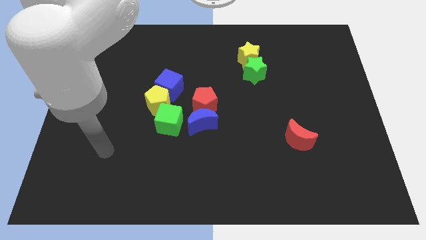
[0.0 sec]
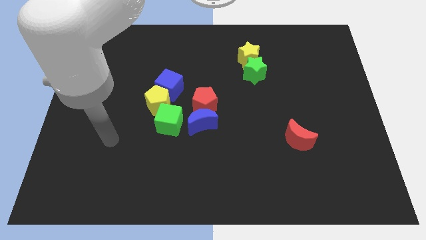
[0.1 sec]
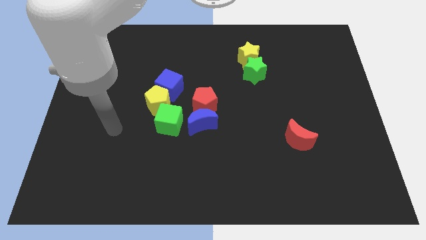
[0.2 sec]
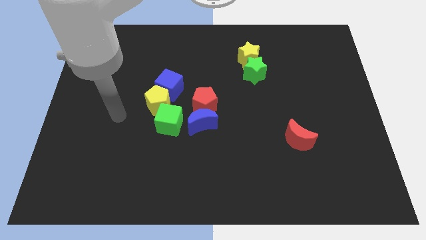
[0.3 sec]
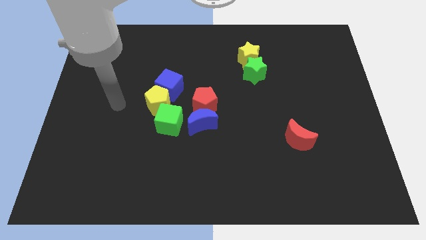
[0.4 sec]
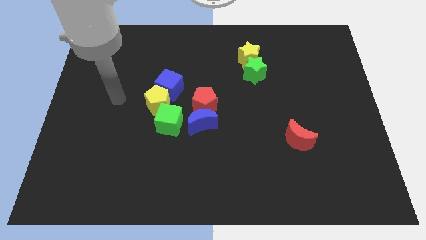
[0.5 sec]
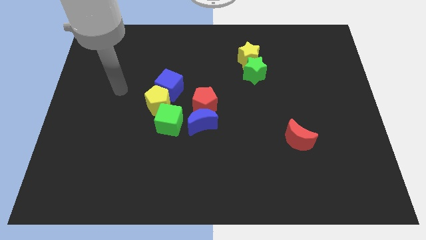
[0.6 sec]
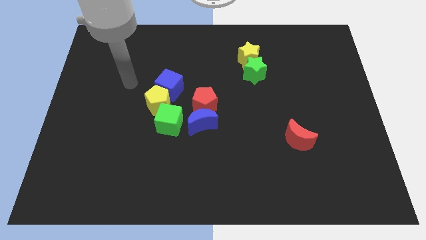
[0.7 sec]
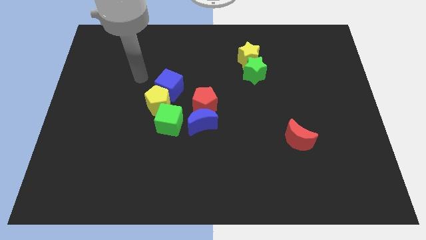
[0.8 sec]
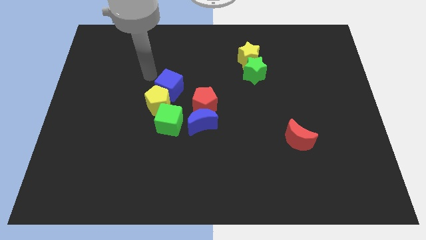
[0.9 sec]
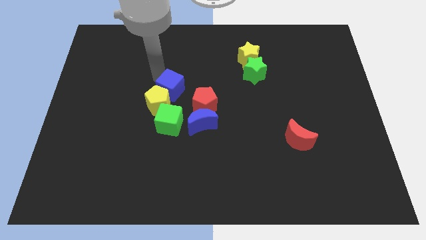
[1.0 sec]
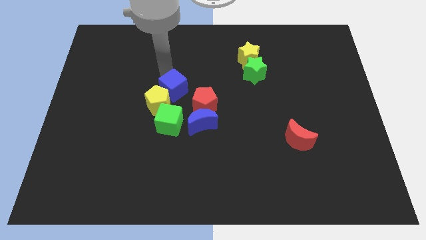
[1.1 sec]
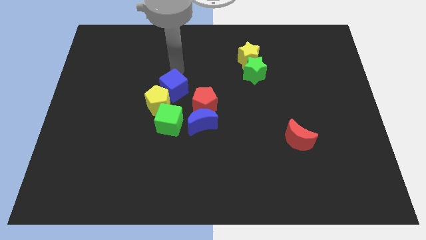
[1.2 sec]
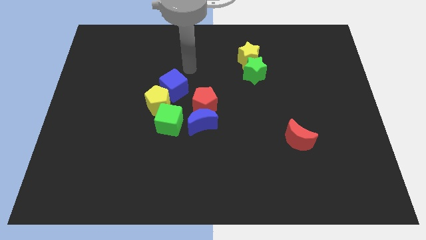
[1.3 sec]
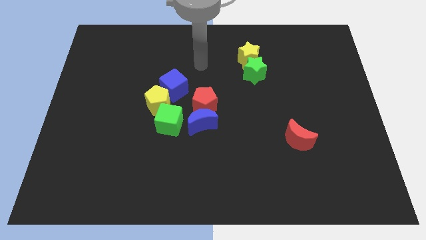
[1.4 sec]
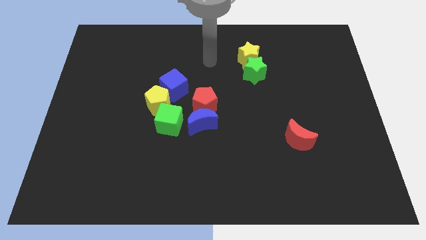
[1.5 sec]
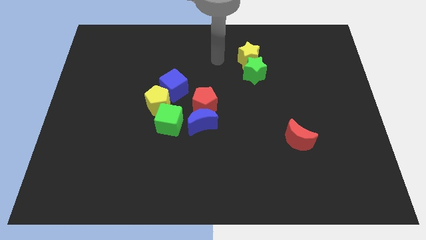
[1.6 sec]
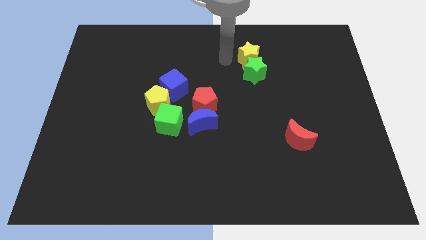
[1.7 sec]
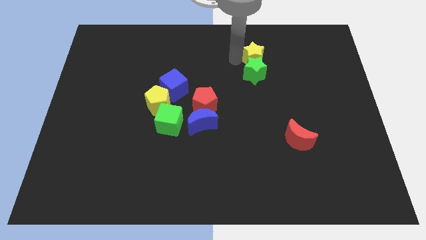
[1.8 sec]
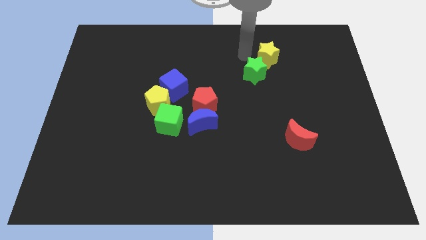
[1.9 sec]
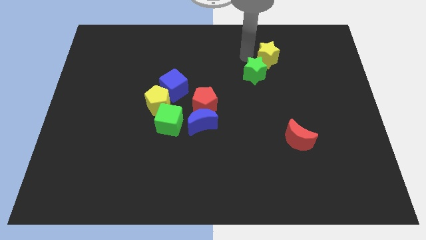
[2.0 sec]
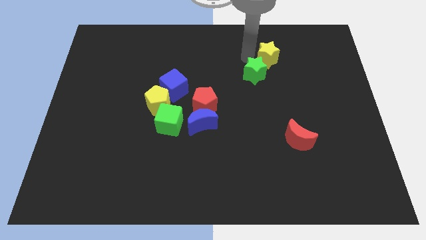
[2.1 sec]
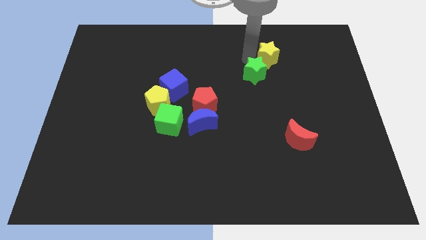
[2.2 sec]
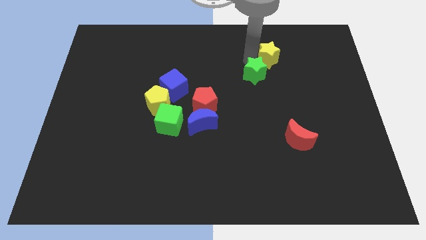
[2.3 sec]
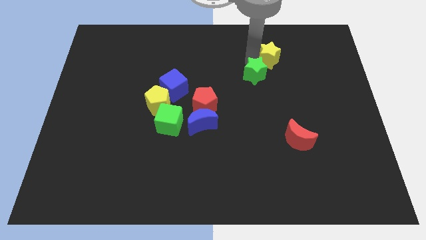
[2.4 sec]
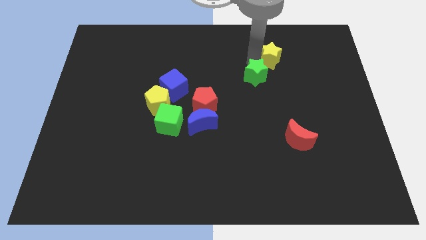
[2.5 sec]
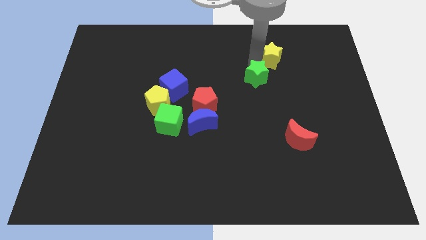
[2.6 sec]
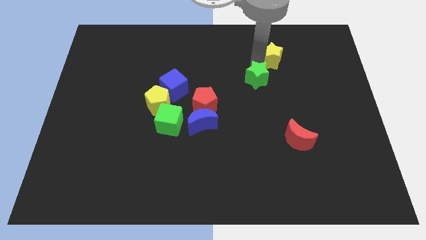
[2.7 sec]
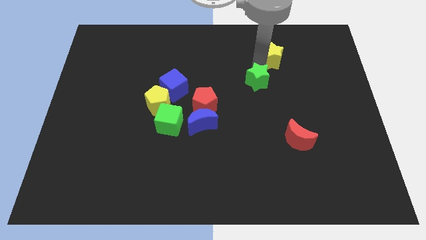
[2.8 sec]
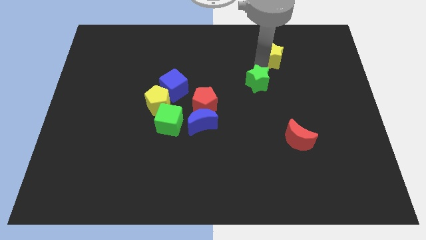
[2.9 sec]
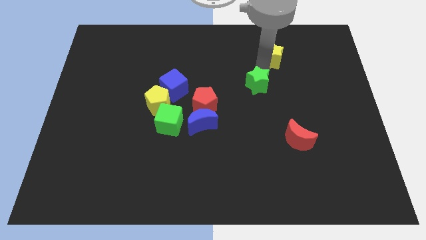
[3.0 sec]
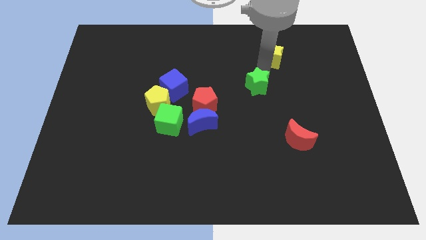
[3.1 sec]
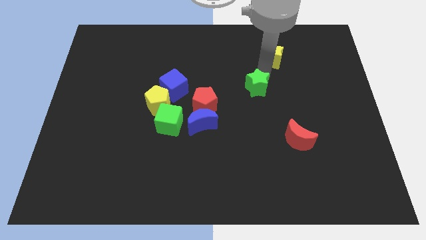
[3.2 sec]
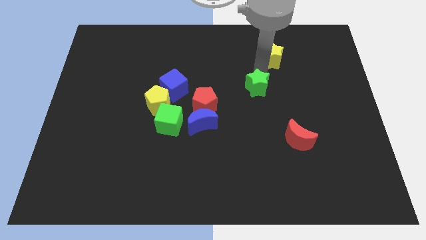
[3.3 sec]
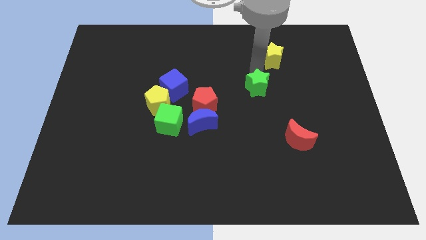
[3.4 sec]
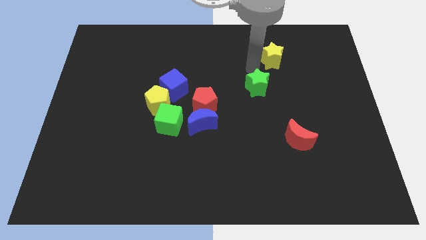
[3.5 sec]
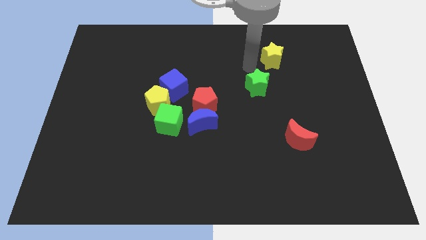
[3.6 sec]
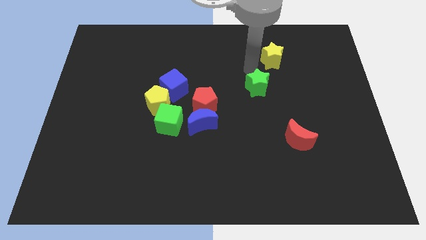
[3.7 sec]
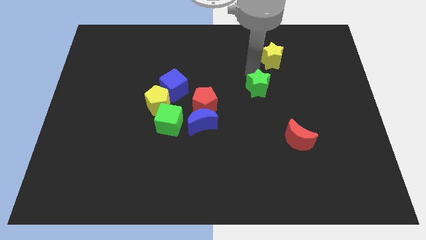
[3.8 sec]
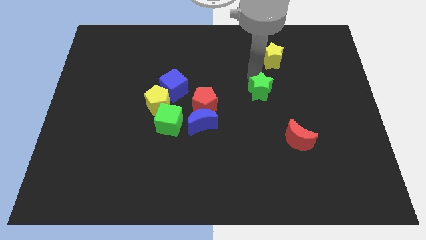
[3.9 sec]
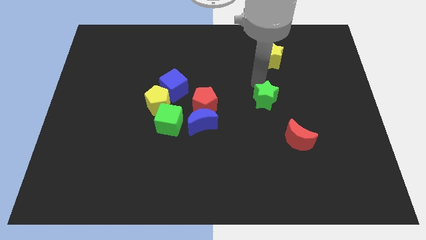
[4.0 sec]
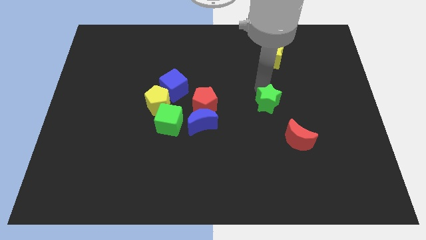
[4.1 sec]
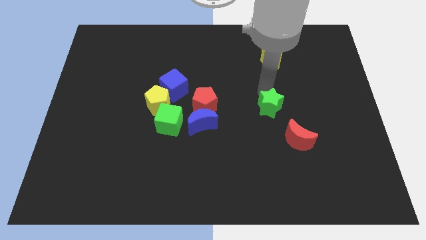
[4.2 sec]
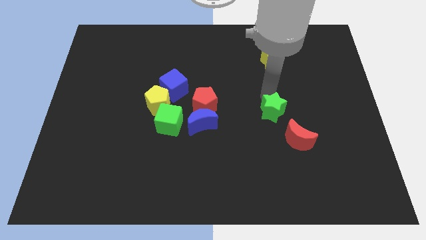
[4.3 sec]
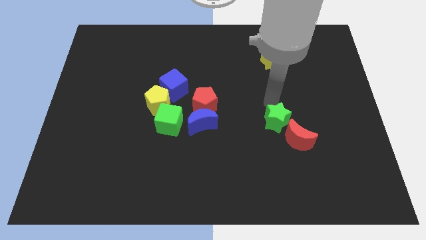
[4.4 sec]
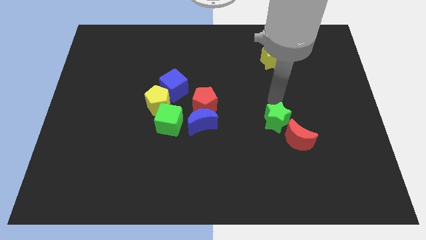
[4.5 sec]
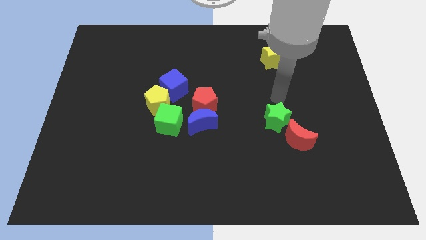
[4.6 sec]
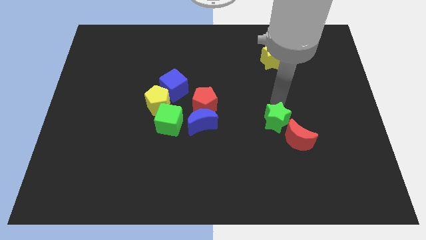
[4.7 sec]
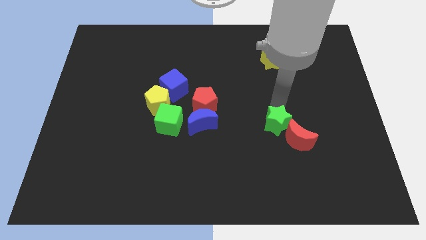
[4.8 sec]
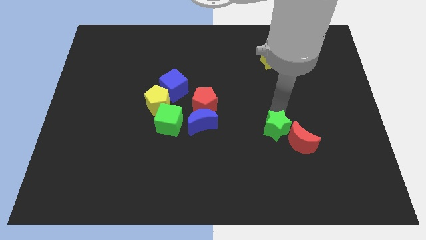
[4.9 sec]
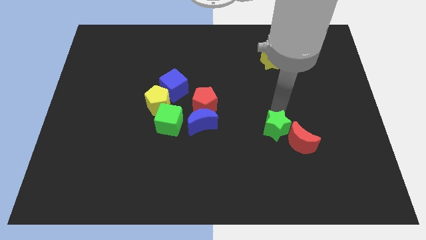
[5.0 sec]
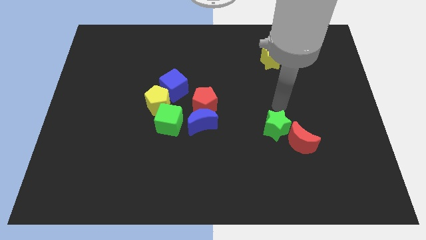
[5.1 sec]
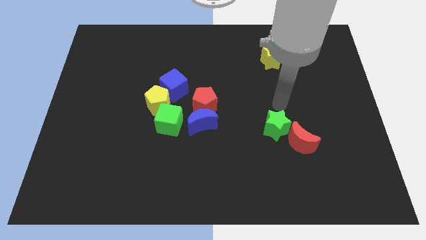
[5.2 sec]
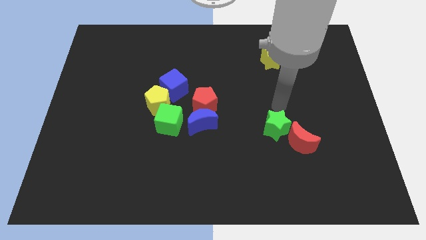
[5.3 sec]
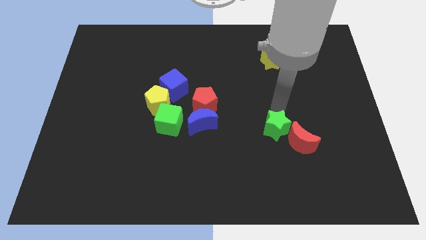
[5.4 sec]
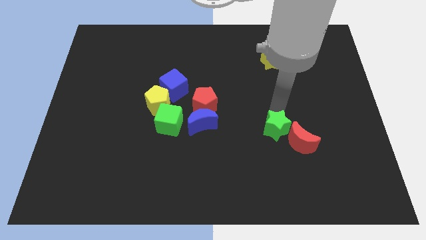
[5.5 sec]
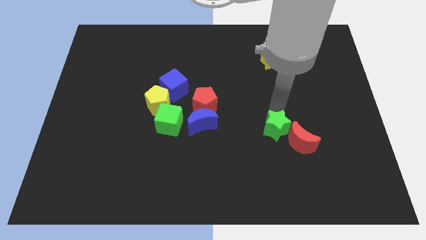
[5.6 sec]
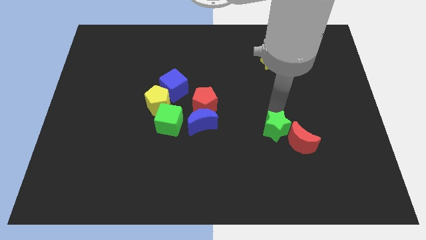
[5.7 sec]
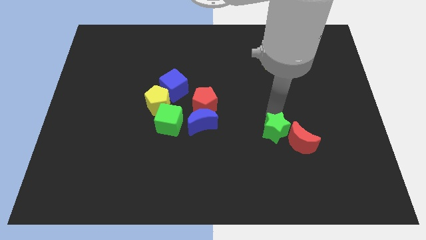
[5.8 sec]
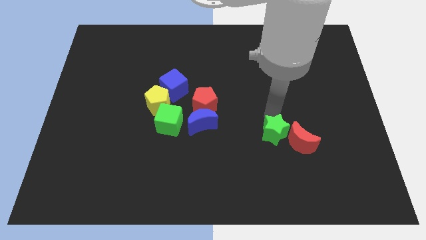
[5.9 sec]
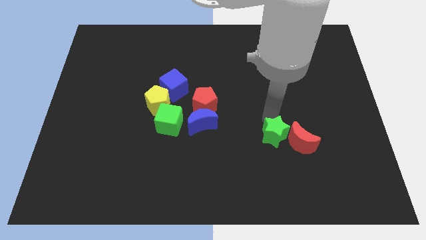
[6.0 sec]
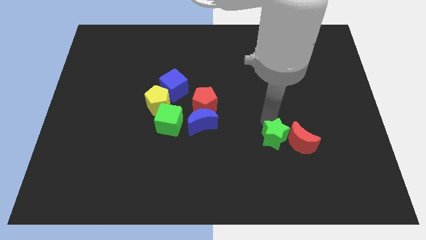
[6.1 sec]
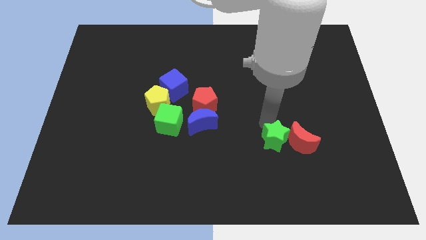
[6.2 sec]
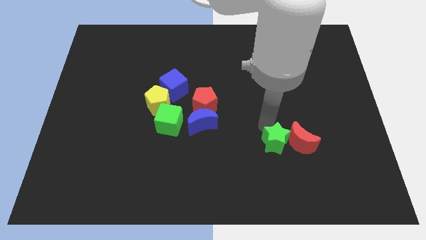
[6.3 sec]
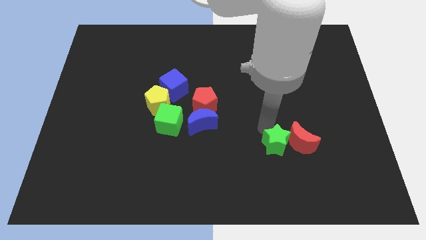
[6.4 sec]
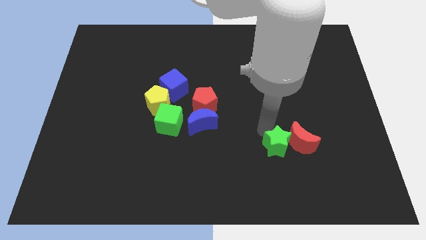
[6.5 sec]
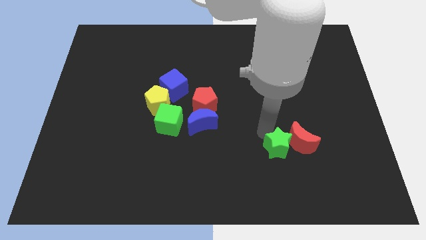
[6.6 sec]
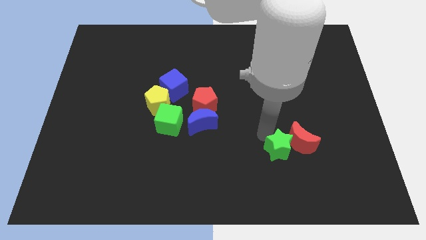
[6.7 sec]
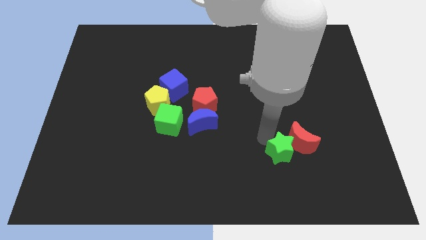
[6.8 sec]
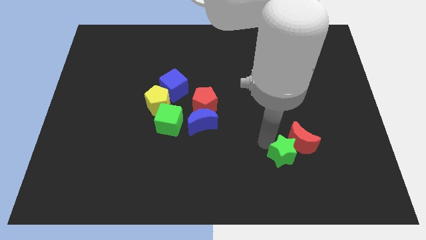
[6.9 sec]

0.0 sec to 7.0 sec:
push the green star to the bottom of the red moon
